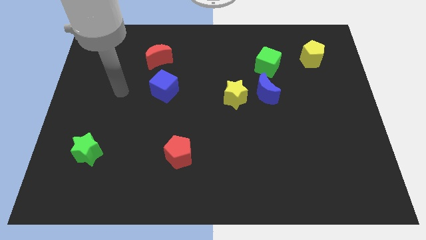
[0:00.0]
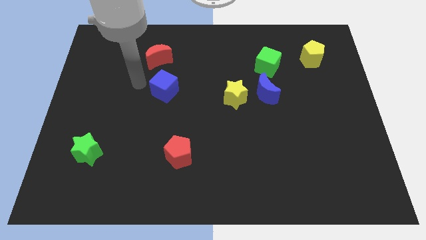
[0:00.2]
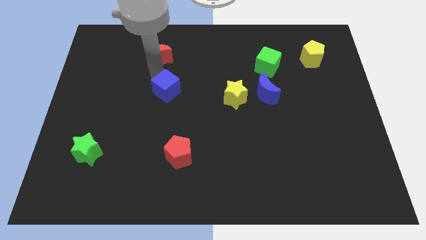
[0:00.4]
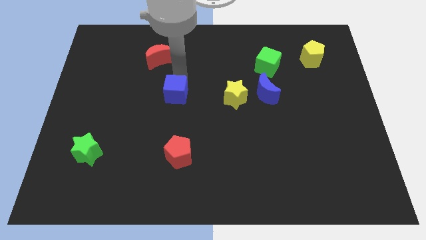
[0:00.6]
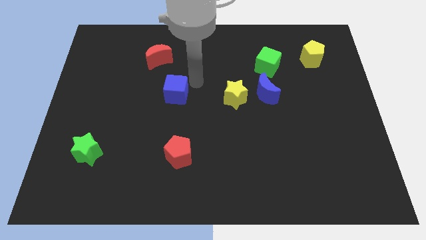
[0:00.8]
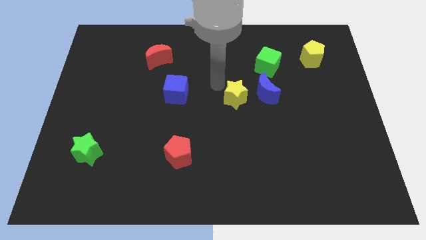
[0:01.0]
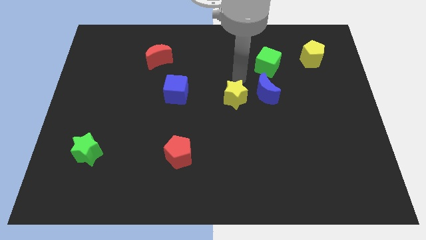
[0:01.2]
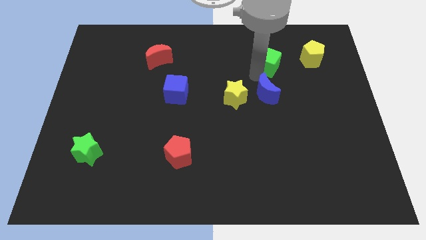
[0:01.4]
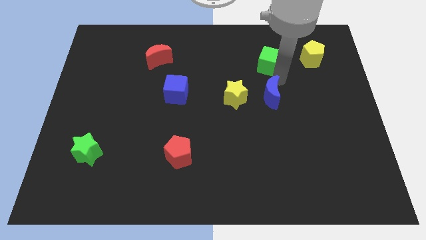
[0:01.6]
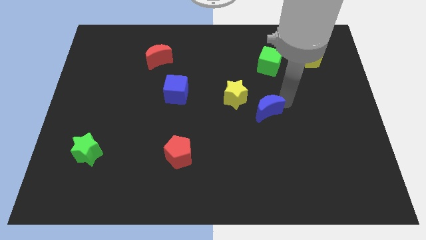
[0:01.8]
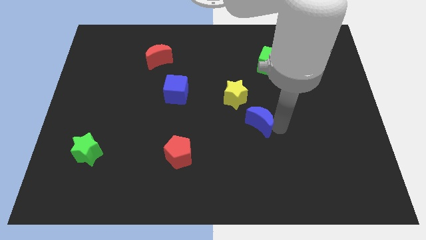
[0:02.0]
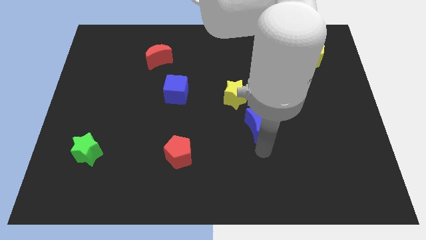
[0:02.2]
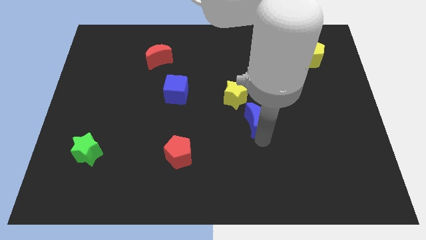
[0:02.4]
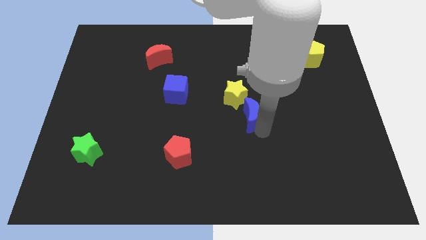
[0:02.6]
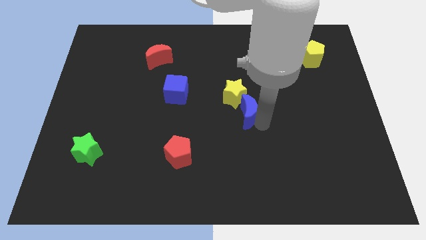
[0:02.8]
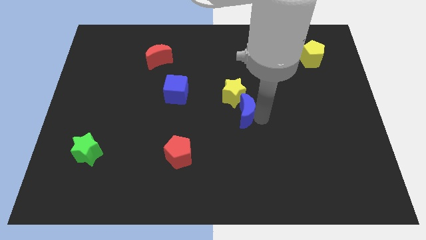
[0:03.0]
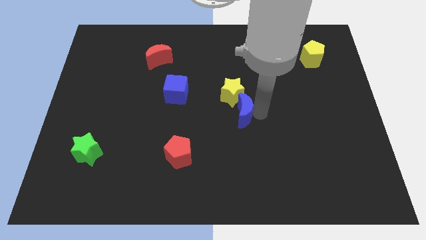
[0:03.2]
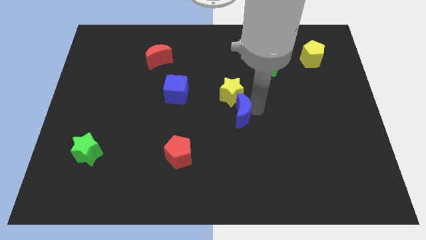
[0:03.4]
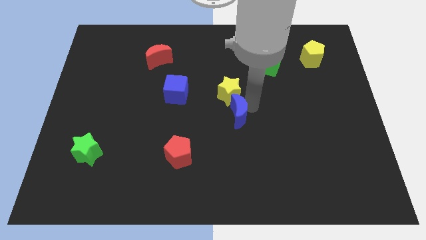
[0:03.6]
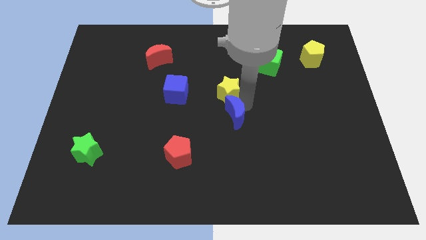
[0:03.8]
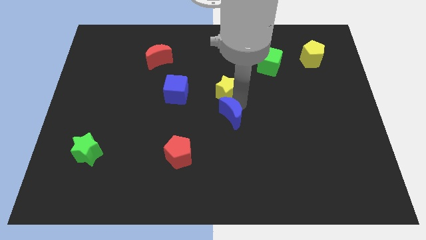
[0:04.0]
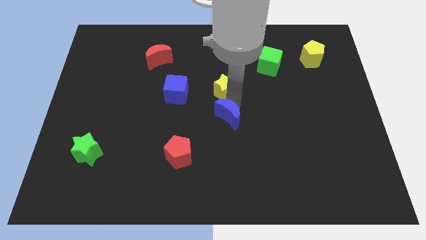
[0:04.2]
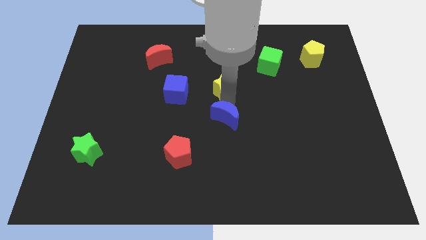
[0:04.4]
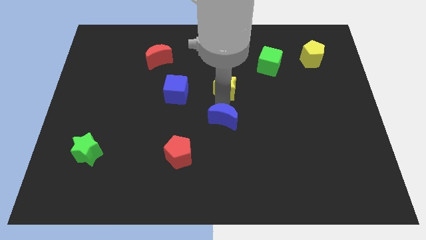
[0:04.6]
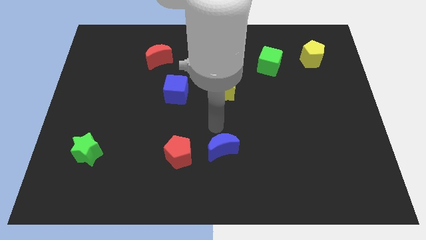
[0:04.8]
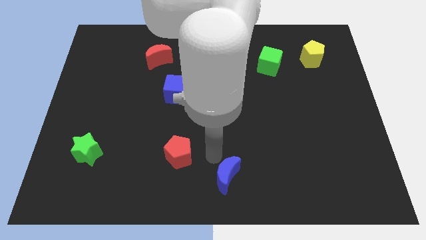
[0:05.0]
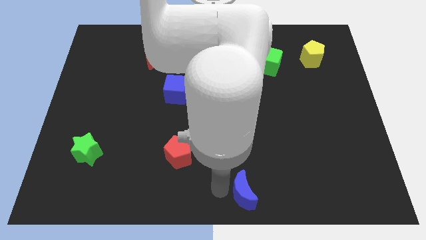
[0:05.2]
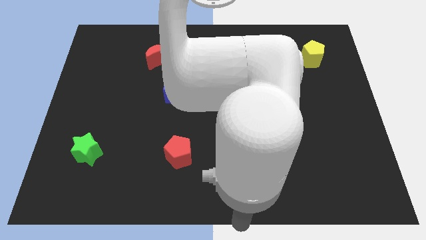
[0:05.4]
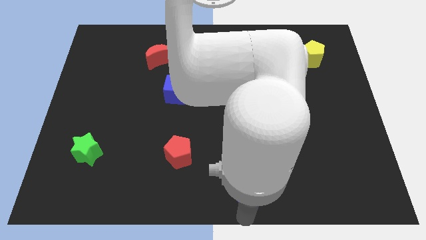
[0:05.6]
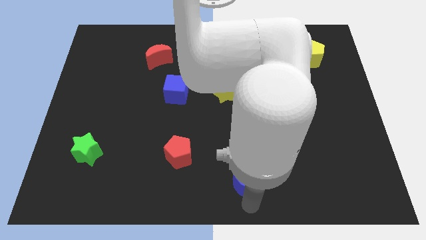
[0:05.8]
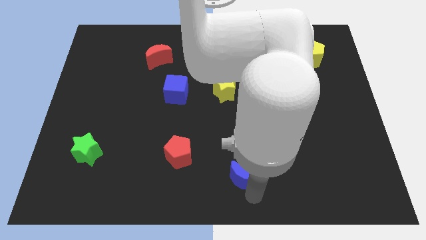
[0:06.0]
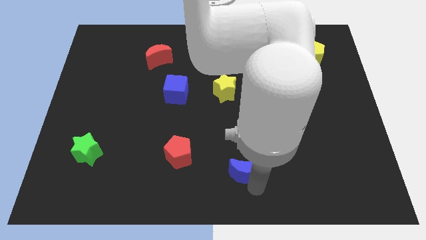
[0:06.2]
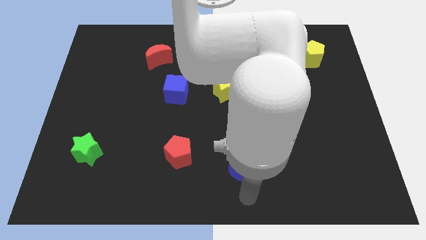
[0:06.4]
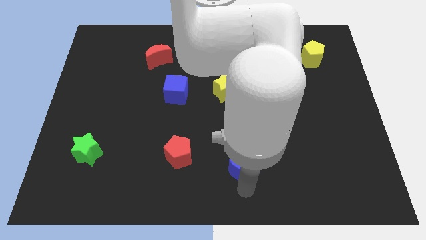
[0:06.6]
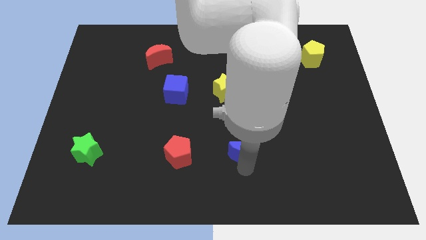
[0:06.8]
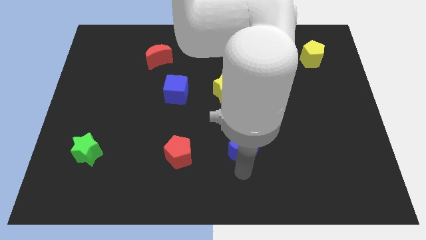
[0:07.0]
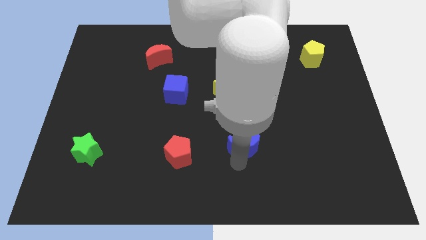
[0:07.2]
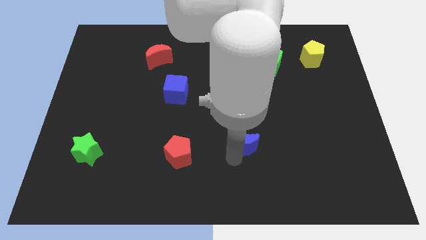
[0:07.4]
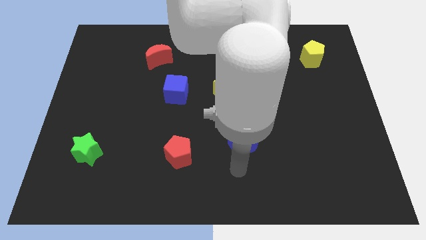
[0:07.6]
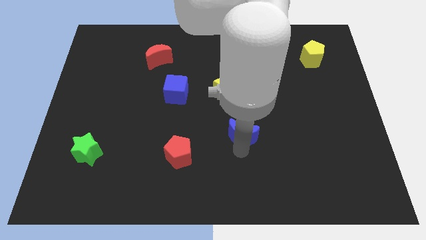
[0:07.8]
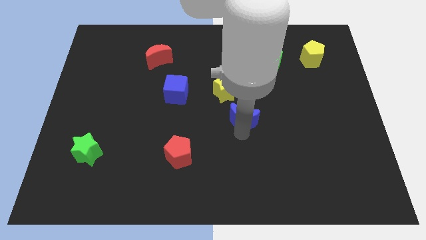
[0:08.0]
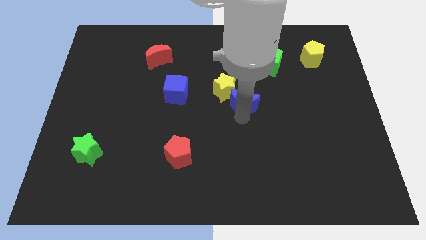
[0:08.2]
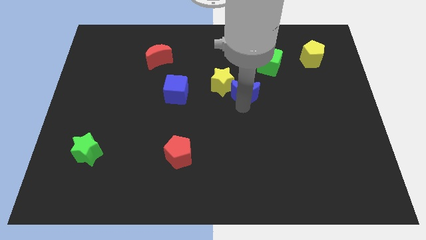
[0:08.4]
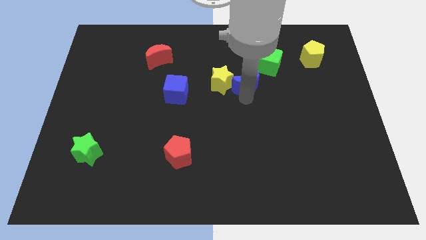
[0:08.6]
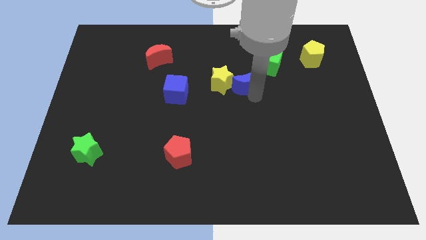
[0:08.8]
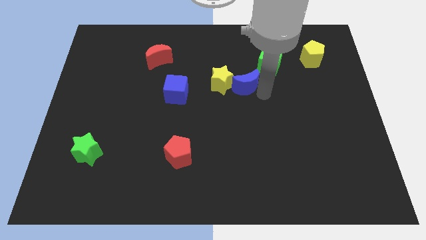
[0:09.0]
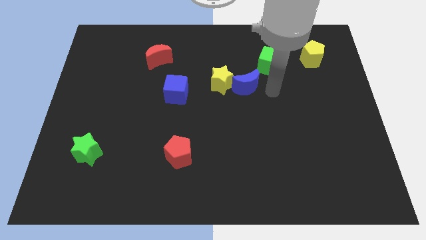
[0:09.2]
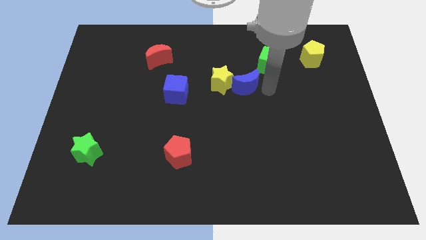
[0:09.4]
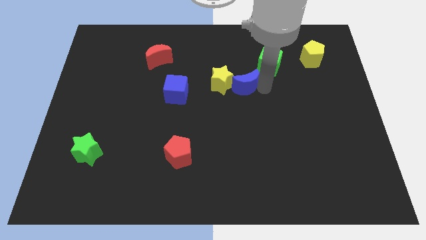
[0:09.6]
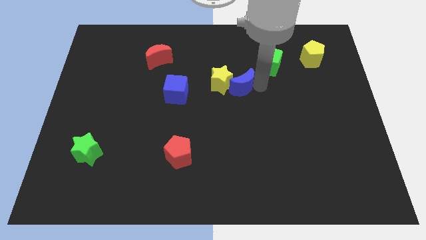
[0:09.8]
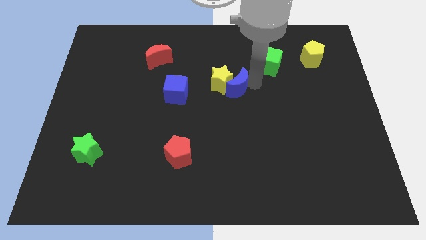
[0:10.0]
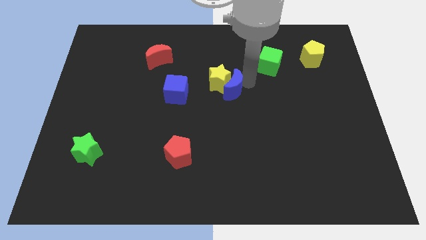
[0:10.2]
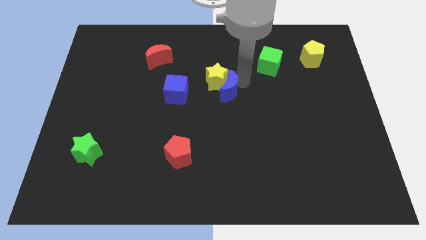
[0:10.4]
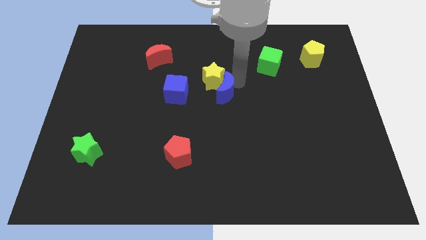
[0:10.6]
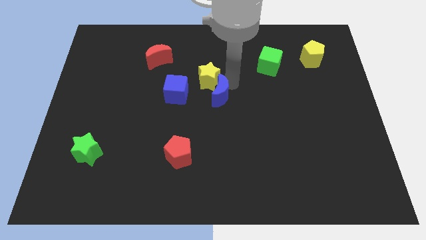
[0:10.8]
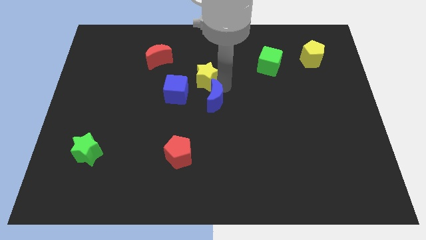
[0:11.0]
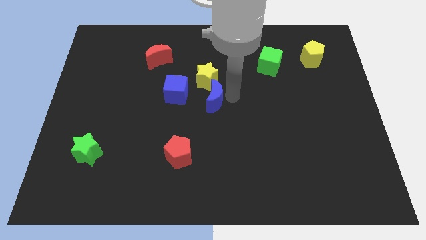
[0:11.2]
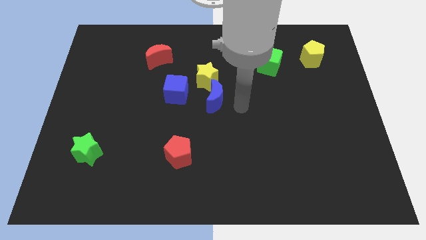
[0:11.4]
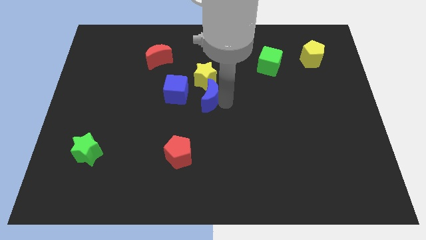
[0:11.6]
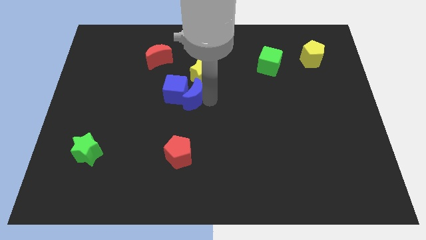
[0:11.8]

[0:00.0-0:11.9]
push the blue moon close to the blue cube

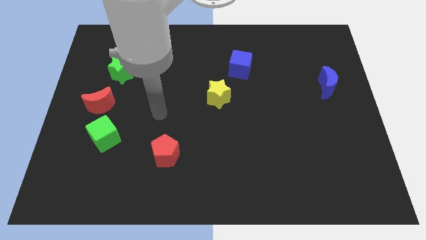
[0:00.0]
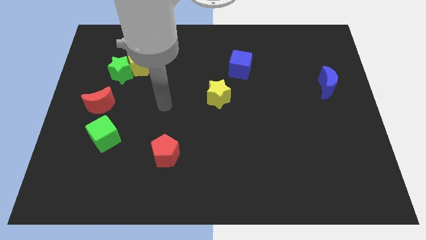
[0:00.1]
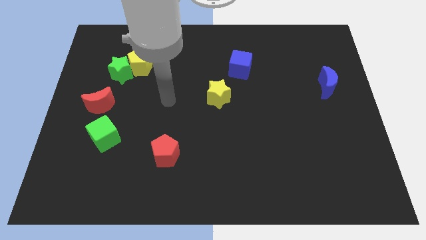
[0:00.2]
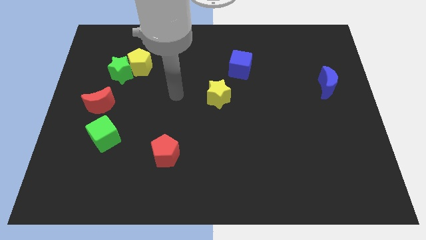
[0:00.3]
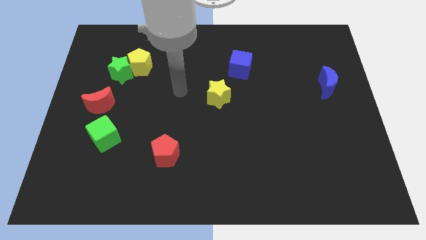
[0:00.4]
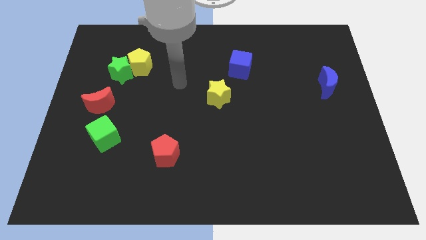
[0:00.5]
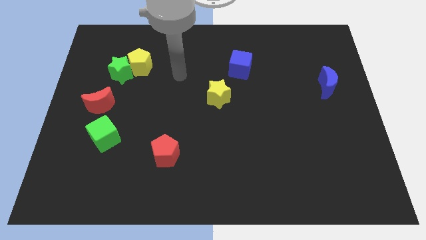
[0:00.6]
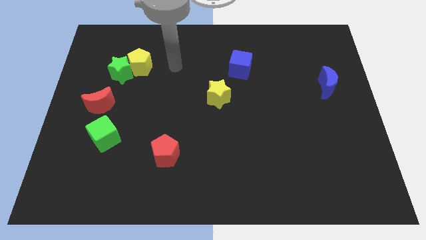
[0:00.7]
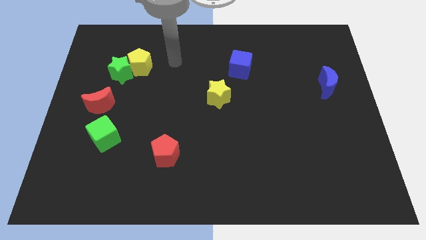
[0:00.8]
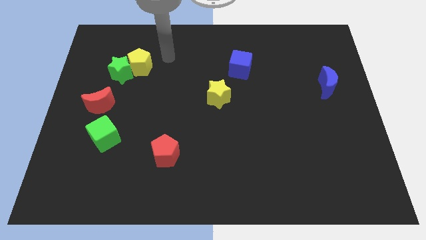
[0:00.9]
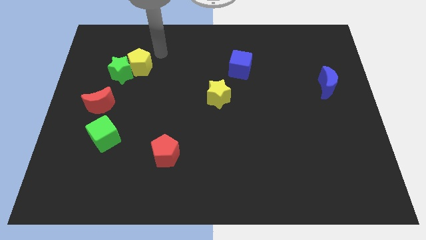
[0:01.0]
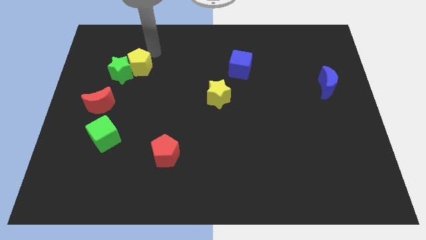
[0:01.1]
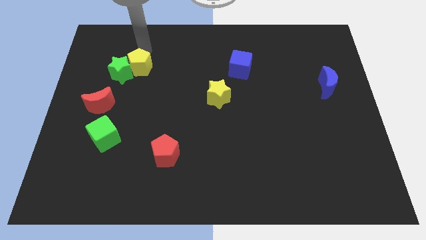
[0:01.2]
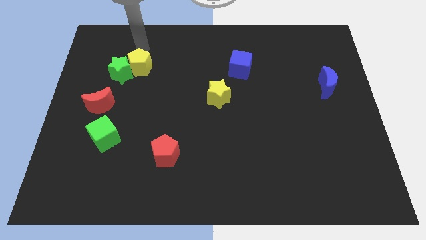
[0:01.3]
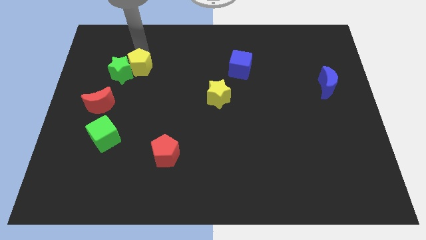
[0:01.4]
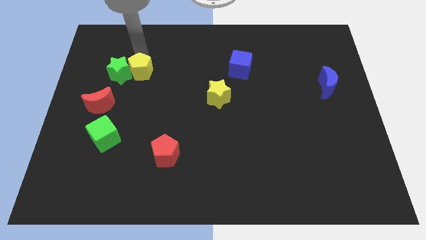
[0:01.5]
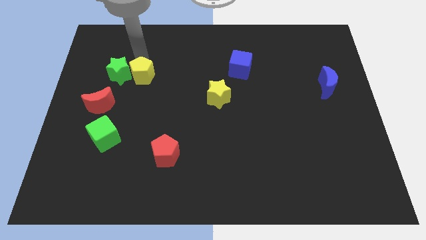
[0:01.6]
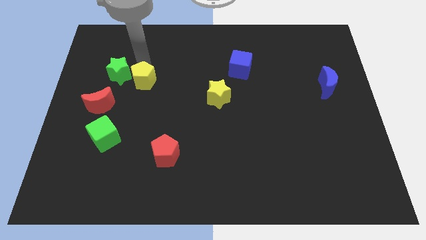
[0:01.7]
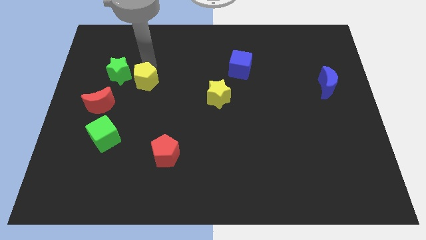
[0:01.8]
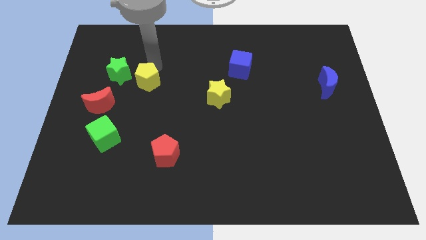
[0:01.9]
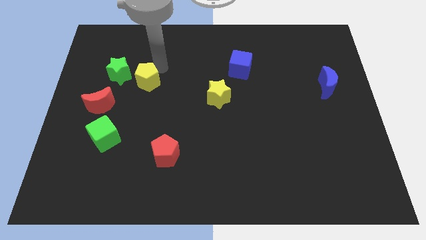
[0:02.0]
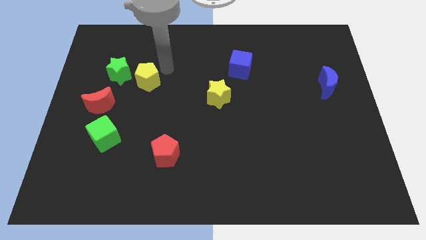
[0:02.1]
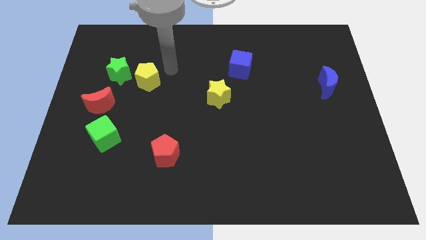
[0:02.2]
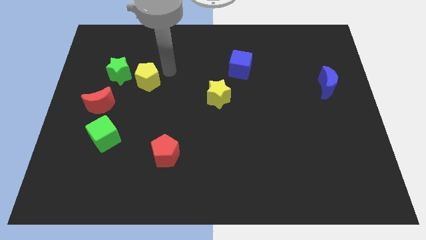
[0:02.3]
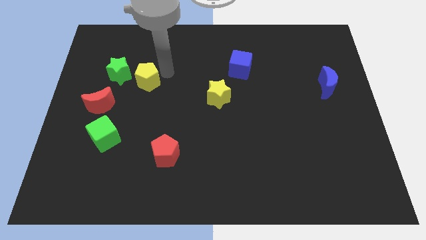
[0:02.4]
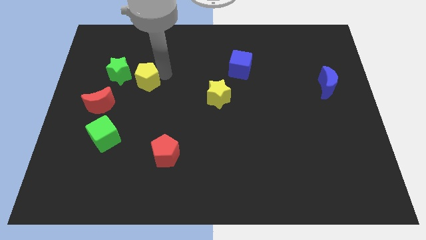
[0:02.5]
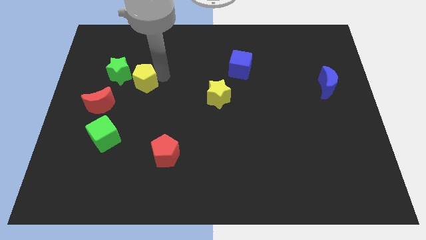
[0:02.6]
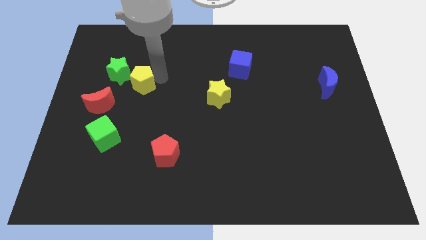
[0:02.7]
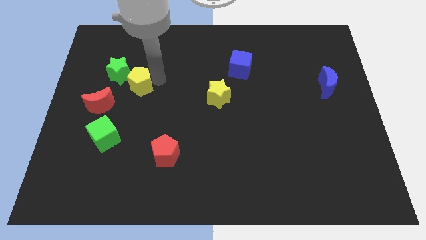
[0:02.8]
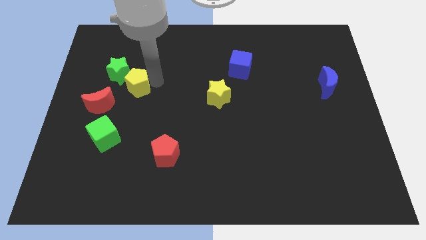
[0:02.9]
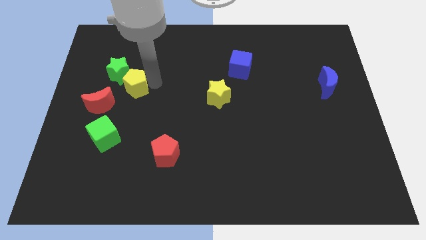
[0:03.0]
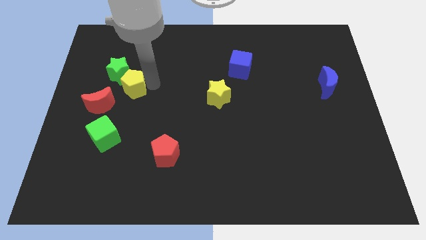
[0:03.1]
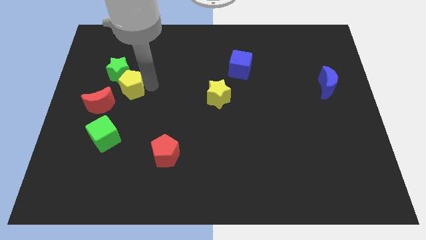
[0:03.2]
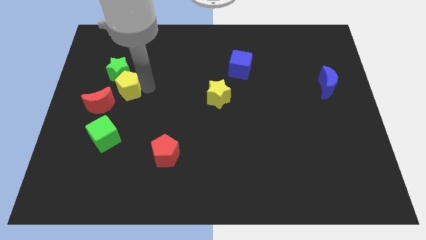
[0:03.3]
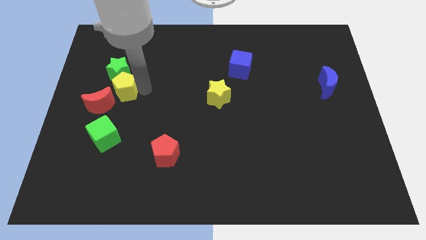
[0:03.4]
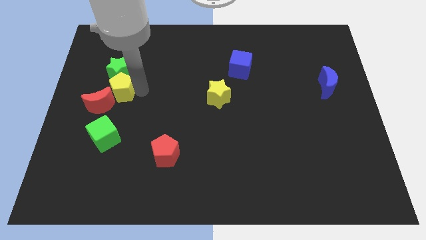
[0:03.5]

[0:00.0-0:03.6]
put the yellow pentagon next to the red moon
